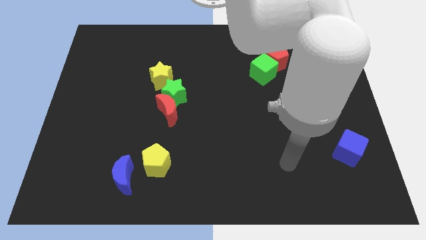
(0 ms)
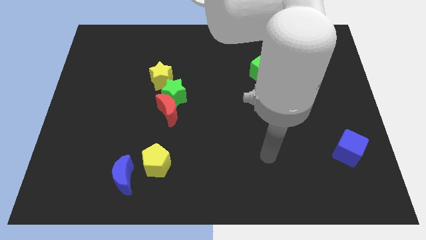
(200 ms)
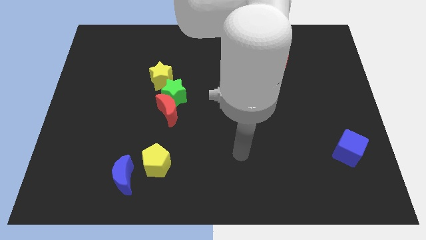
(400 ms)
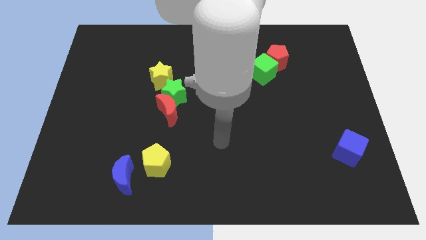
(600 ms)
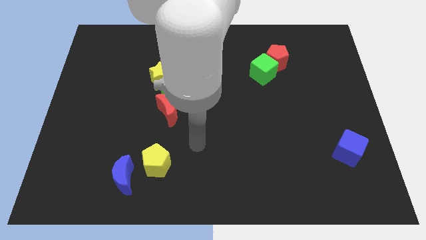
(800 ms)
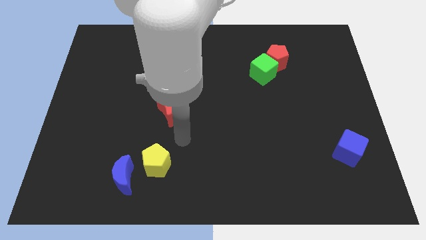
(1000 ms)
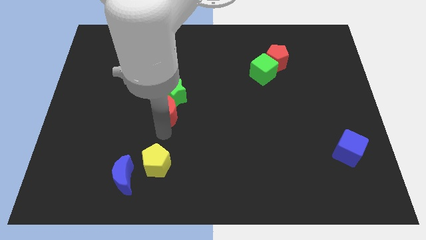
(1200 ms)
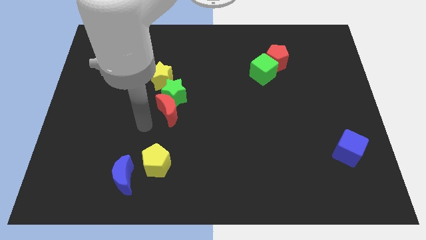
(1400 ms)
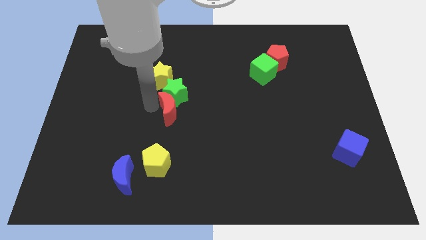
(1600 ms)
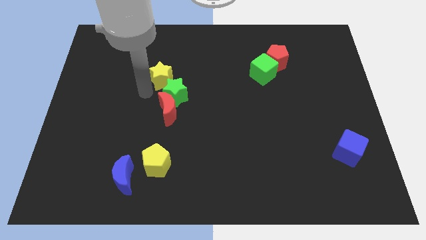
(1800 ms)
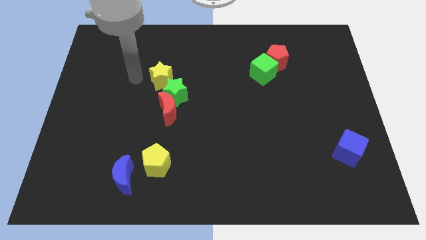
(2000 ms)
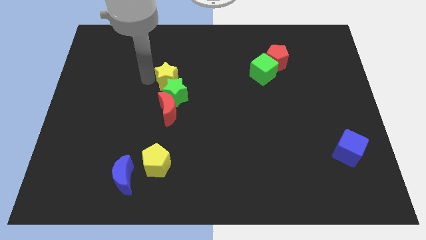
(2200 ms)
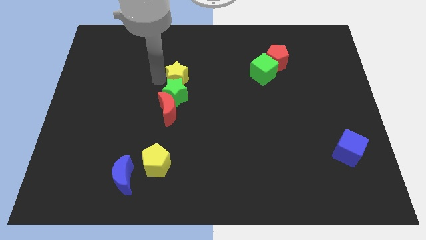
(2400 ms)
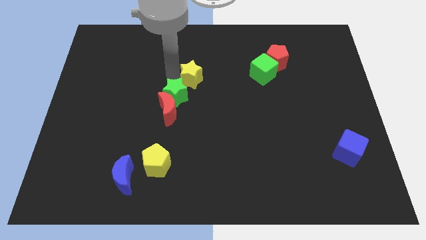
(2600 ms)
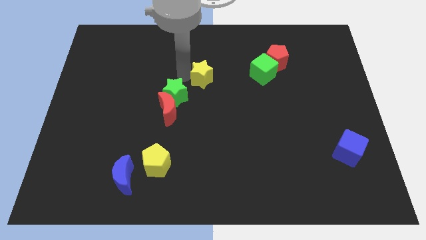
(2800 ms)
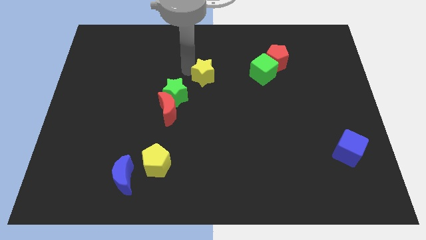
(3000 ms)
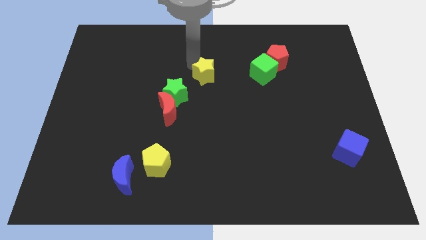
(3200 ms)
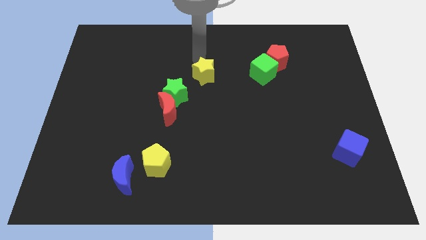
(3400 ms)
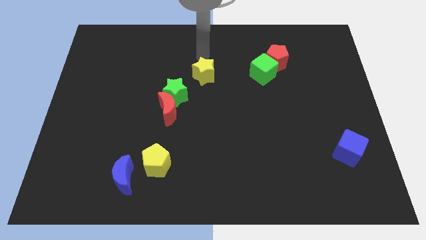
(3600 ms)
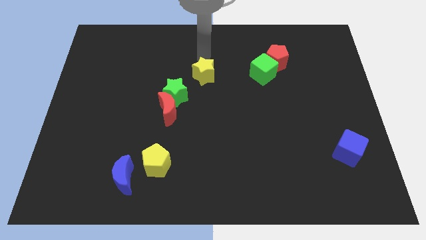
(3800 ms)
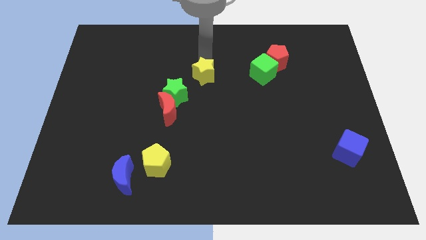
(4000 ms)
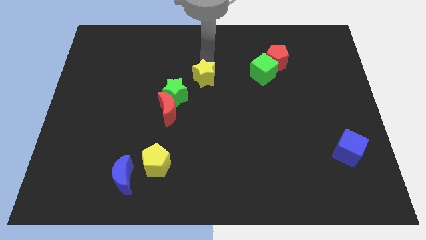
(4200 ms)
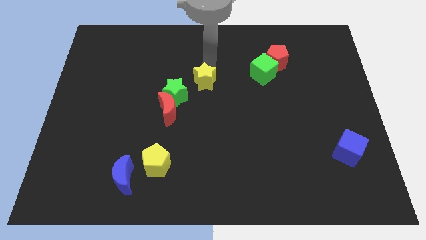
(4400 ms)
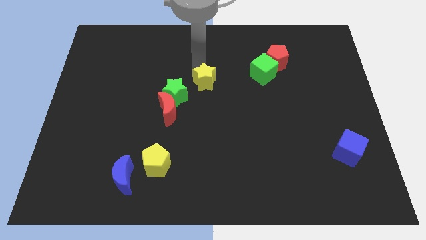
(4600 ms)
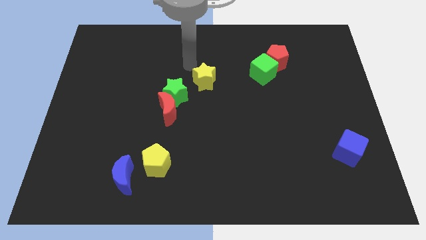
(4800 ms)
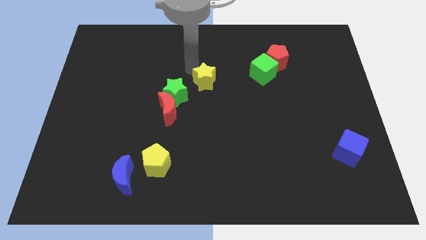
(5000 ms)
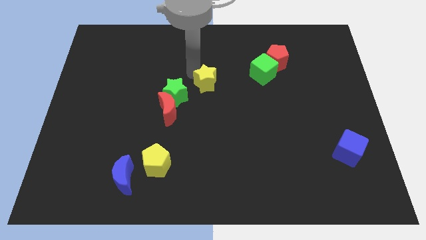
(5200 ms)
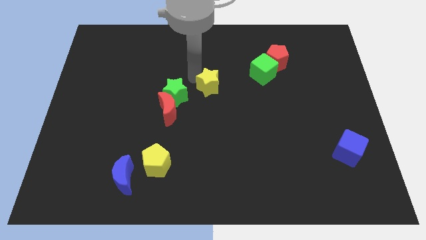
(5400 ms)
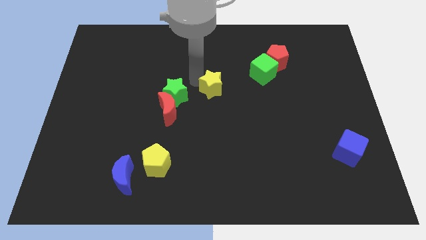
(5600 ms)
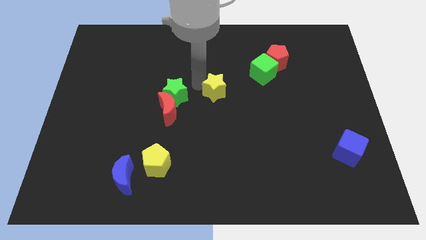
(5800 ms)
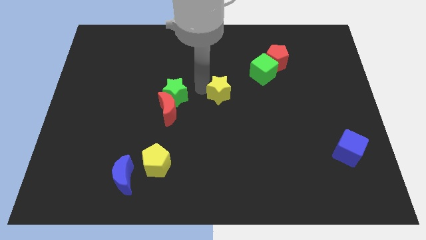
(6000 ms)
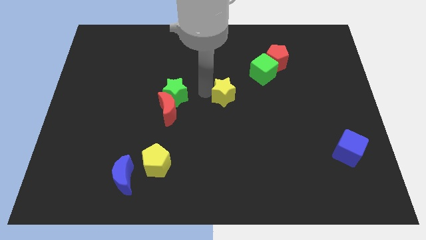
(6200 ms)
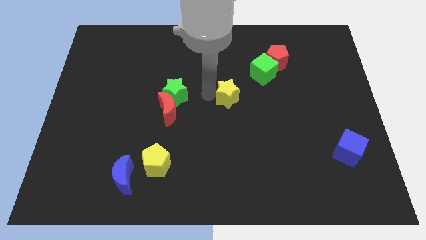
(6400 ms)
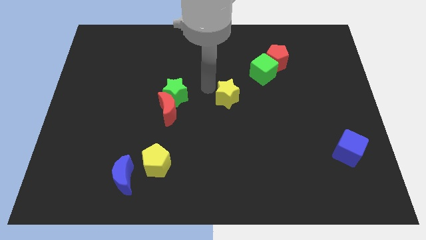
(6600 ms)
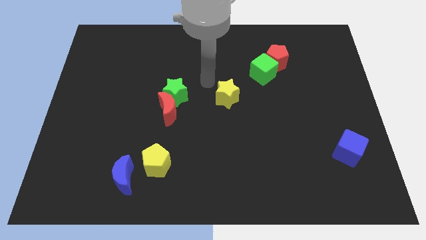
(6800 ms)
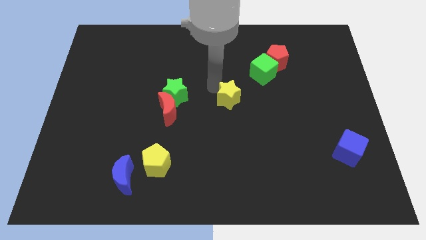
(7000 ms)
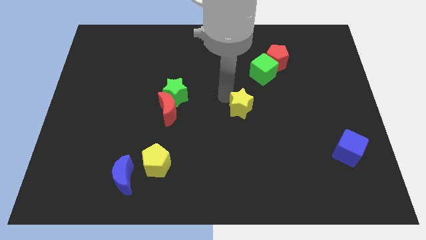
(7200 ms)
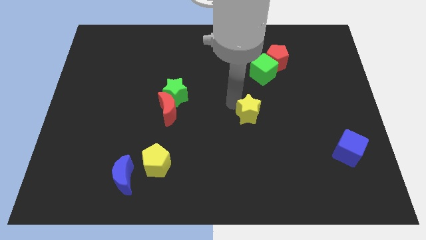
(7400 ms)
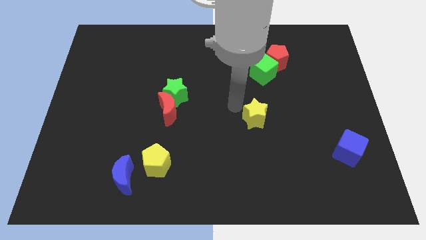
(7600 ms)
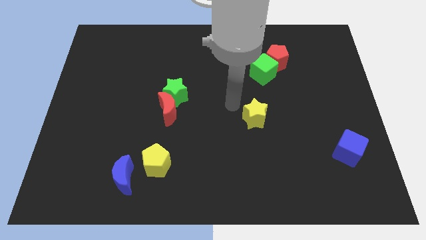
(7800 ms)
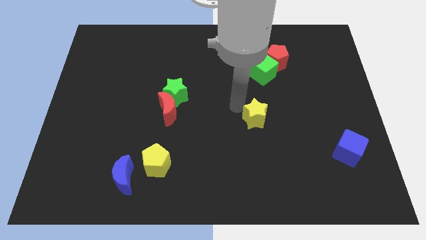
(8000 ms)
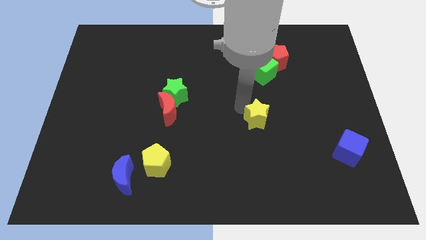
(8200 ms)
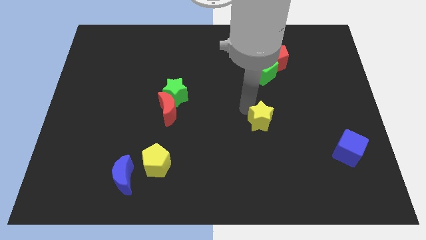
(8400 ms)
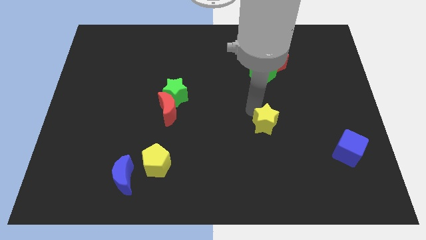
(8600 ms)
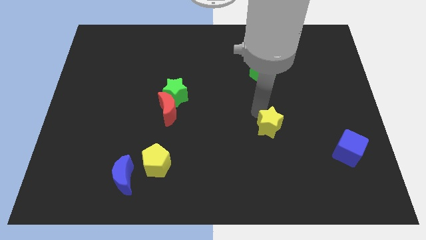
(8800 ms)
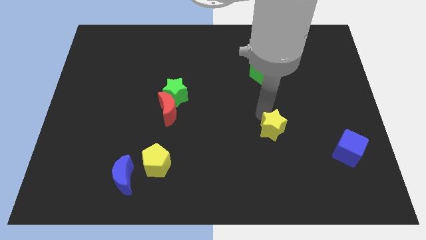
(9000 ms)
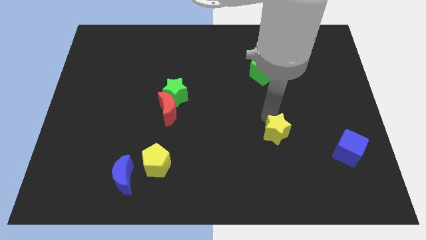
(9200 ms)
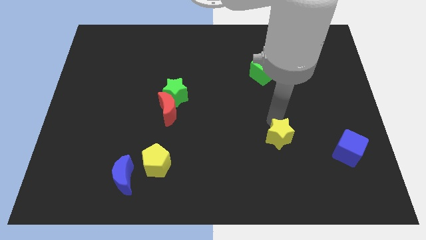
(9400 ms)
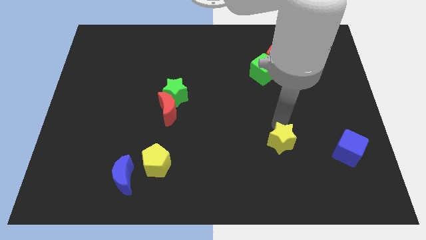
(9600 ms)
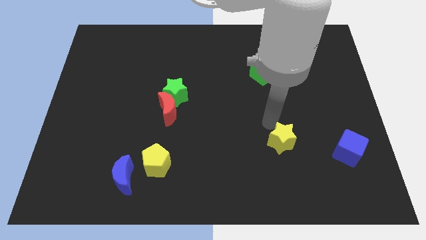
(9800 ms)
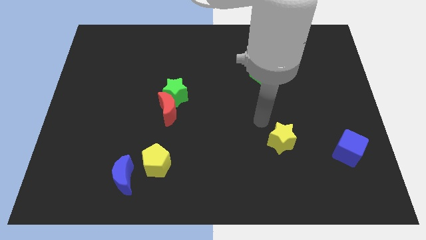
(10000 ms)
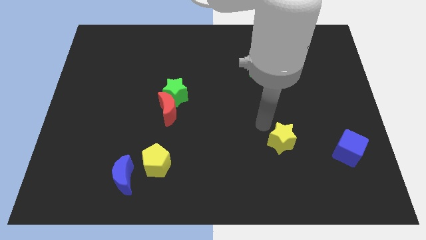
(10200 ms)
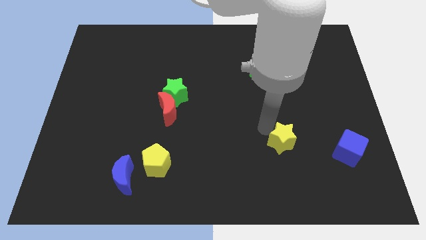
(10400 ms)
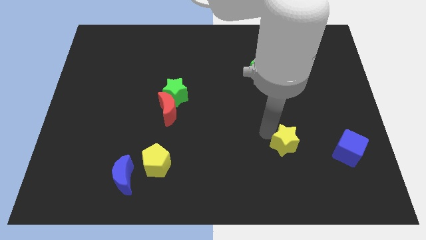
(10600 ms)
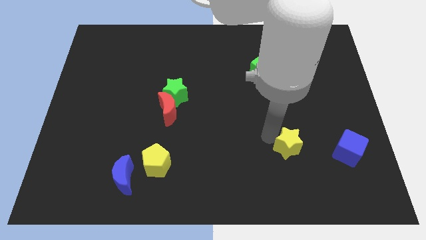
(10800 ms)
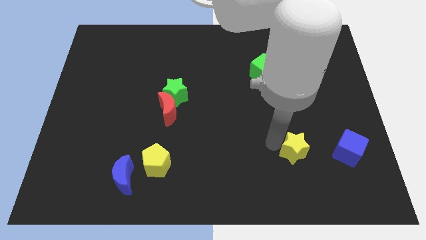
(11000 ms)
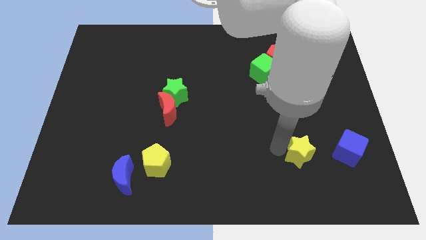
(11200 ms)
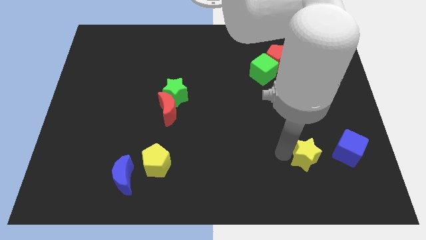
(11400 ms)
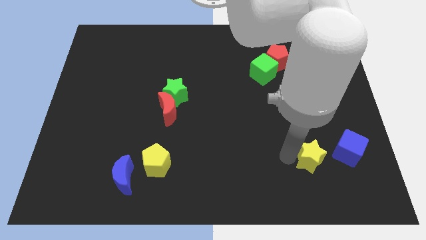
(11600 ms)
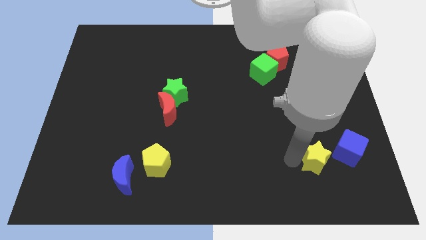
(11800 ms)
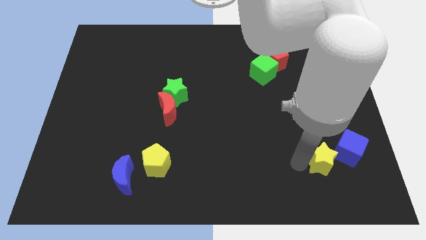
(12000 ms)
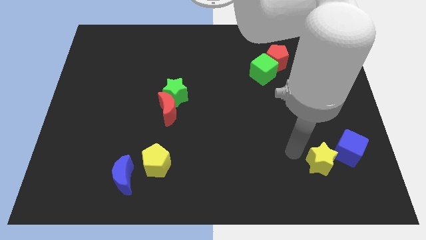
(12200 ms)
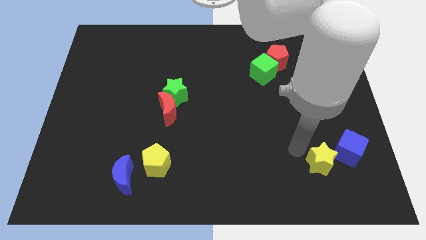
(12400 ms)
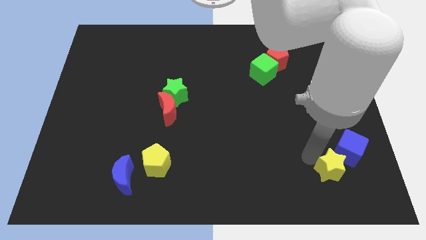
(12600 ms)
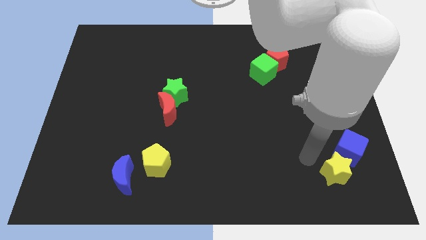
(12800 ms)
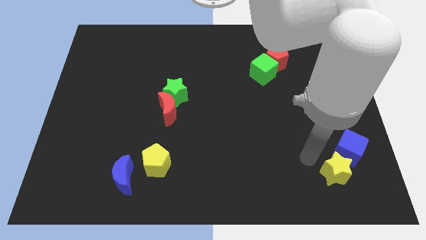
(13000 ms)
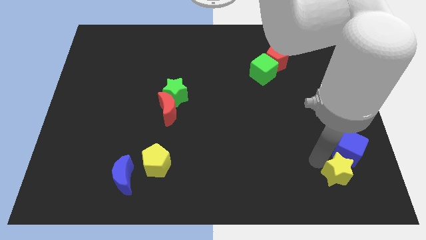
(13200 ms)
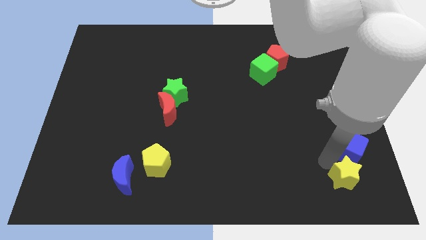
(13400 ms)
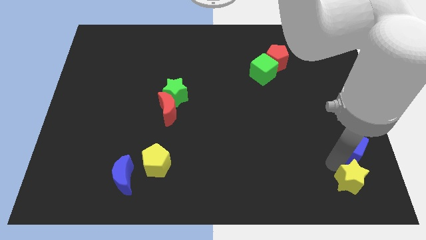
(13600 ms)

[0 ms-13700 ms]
put the yellow star to the bottom right
